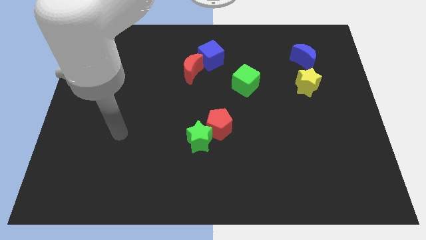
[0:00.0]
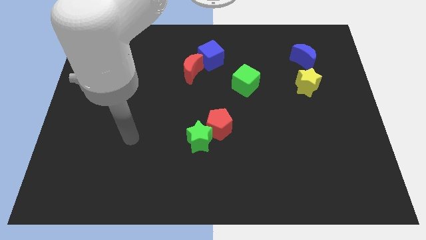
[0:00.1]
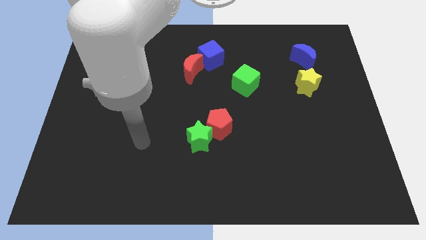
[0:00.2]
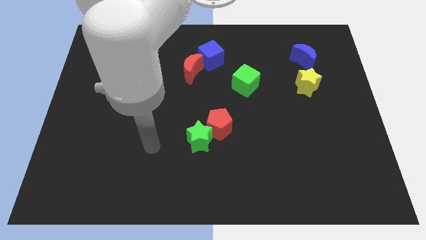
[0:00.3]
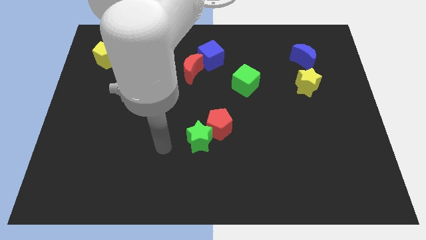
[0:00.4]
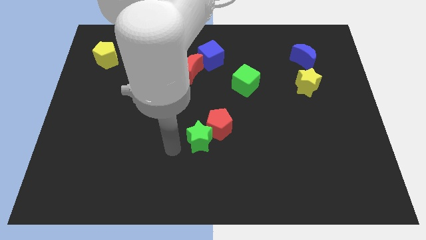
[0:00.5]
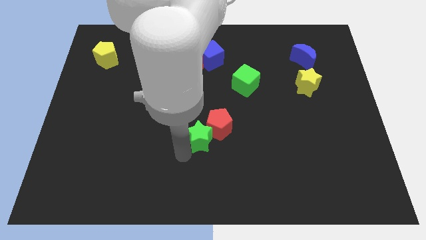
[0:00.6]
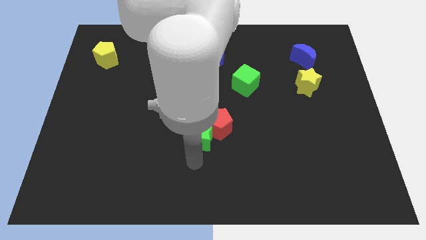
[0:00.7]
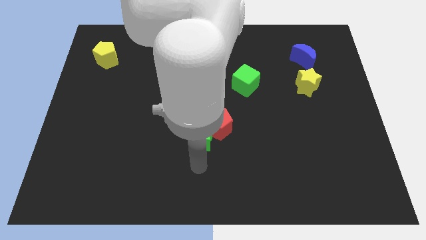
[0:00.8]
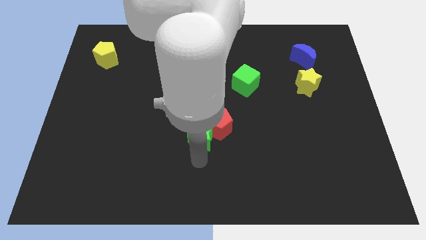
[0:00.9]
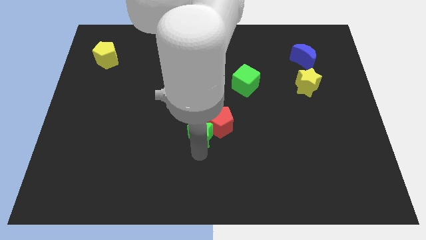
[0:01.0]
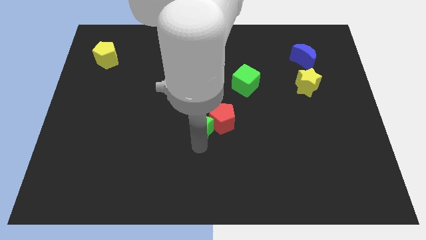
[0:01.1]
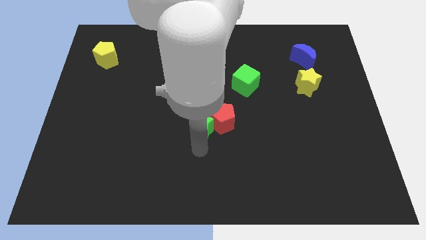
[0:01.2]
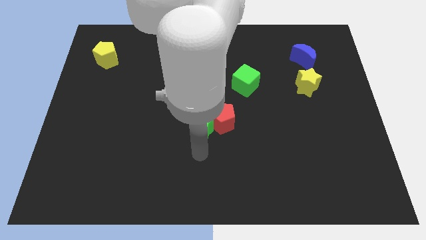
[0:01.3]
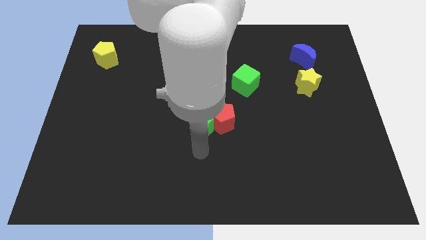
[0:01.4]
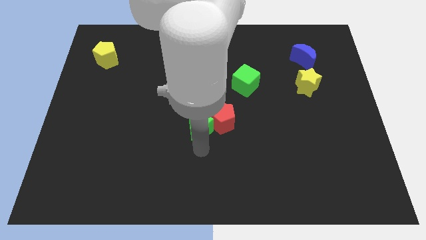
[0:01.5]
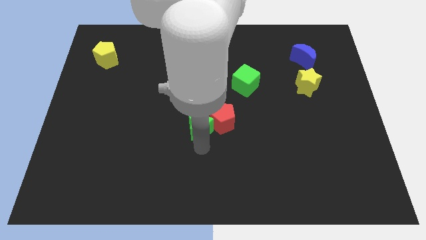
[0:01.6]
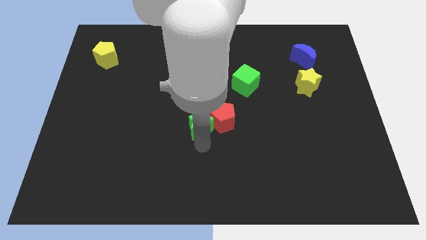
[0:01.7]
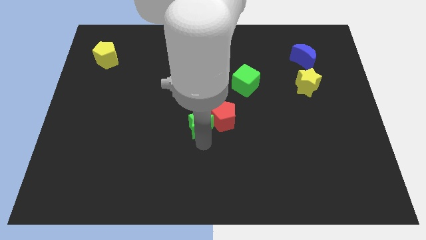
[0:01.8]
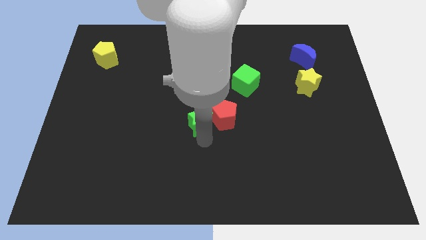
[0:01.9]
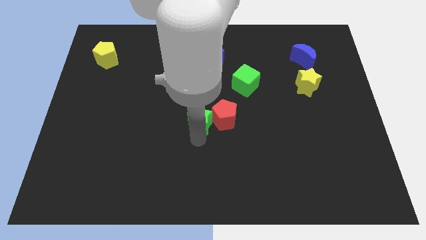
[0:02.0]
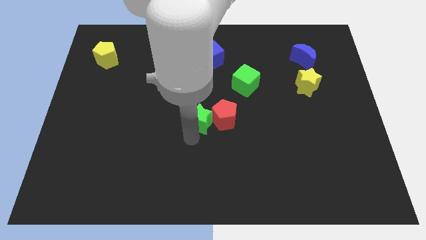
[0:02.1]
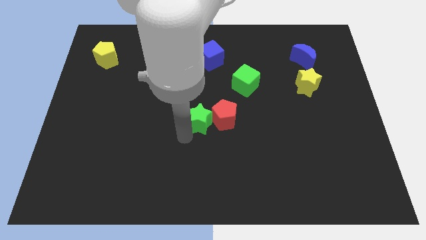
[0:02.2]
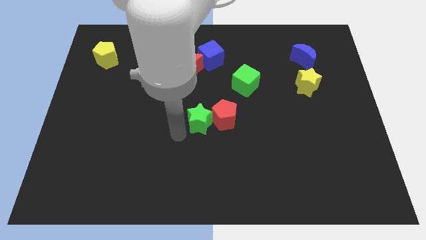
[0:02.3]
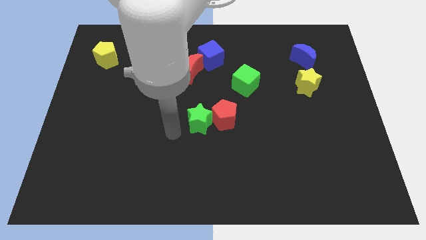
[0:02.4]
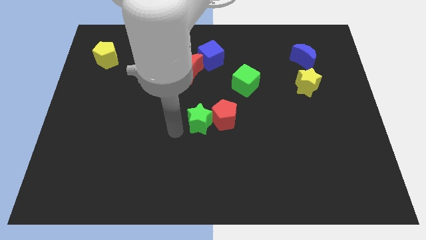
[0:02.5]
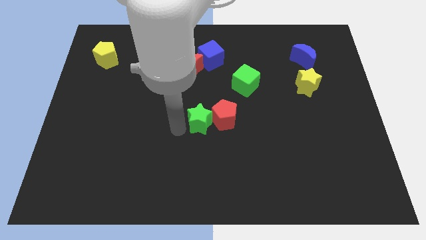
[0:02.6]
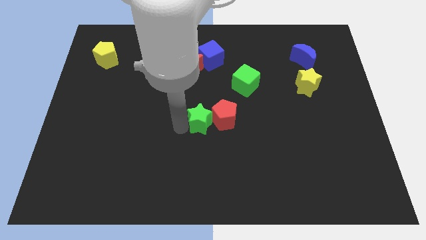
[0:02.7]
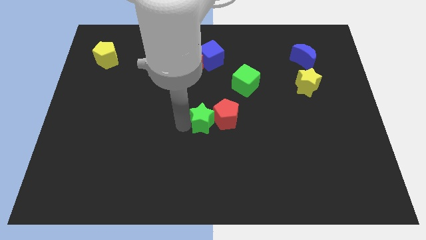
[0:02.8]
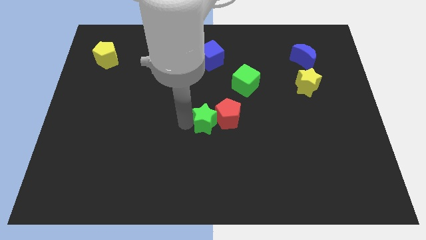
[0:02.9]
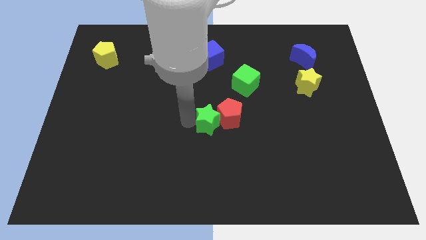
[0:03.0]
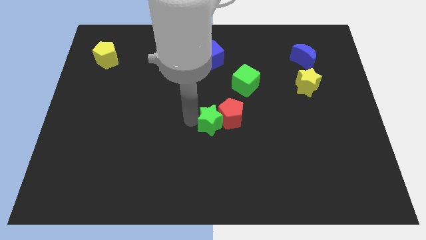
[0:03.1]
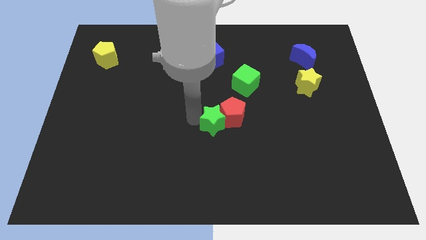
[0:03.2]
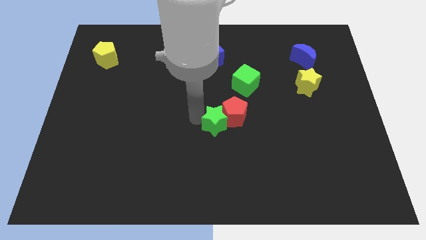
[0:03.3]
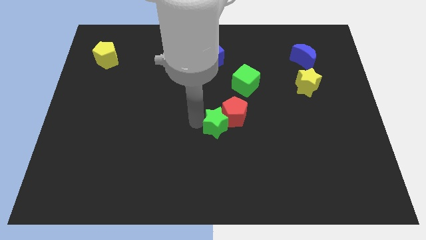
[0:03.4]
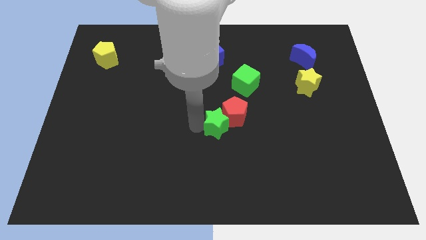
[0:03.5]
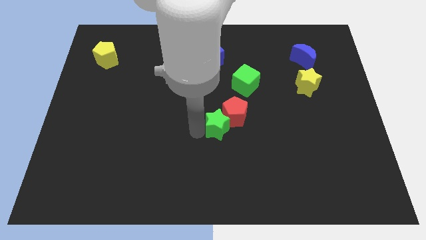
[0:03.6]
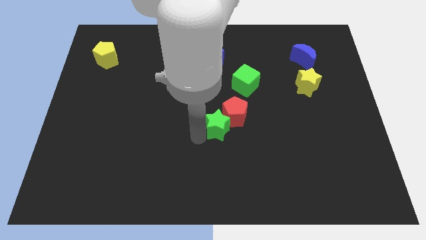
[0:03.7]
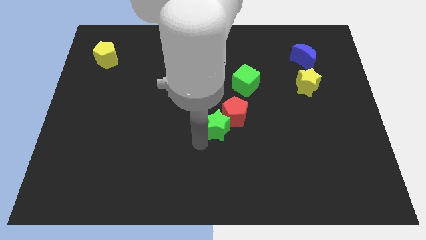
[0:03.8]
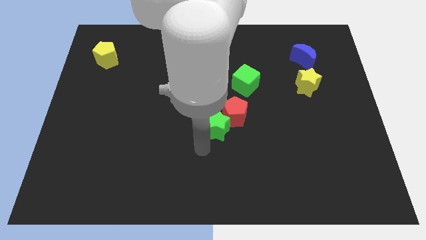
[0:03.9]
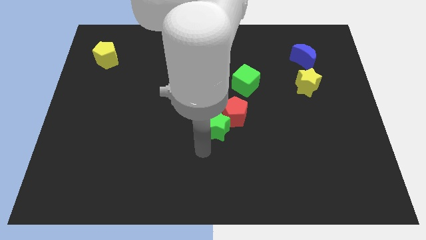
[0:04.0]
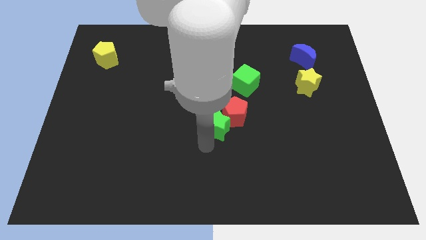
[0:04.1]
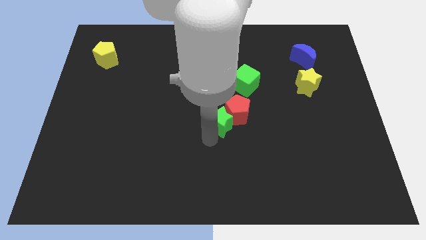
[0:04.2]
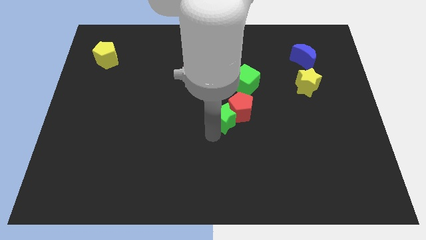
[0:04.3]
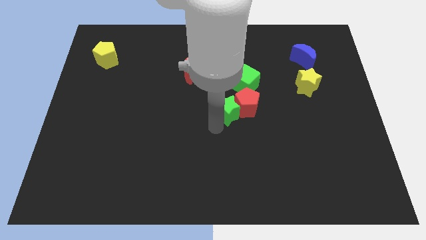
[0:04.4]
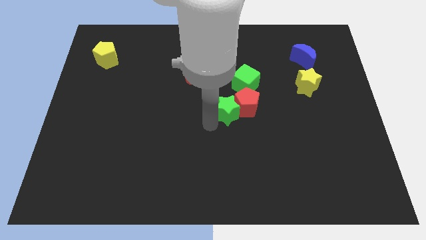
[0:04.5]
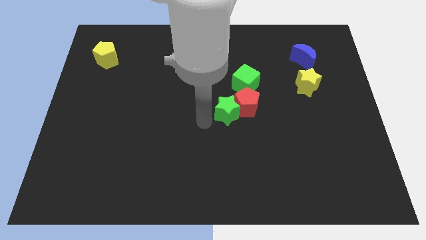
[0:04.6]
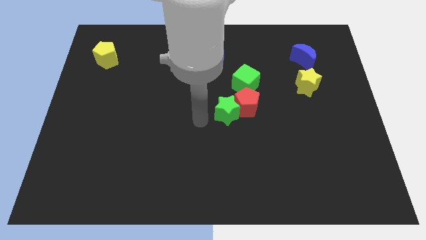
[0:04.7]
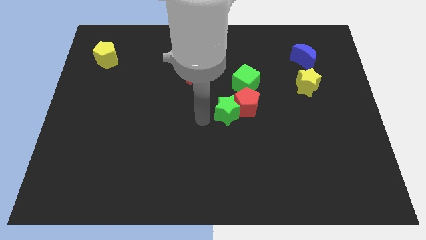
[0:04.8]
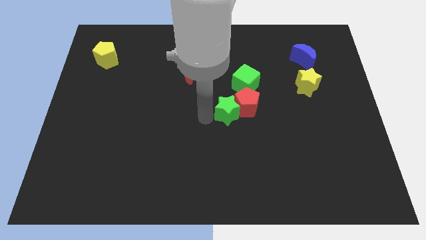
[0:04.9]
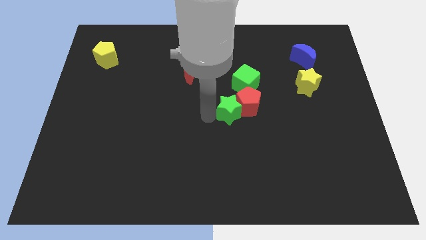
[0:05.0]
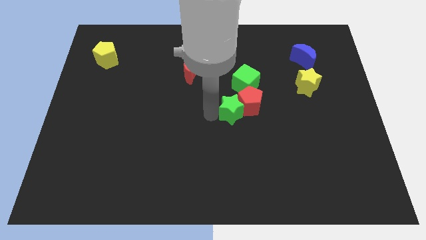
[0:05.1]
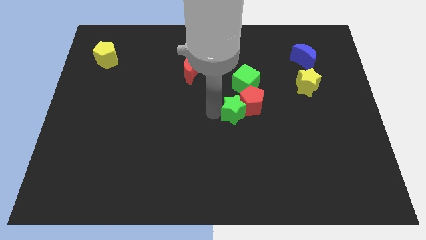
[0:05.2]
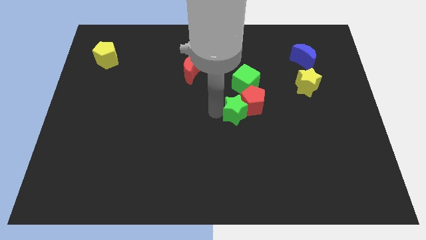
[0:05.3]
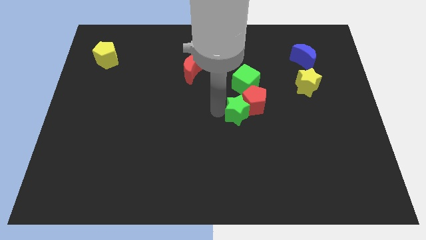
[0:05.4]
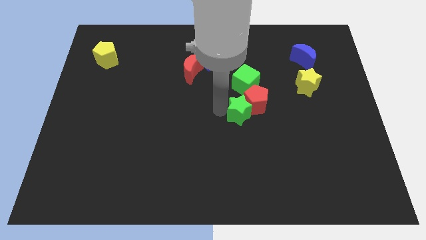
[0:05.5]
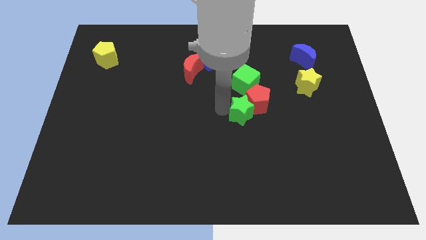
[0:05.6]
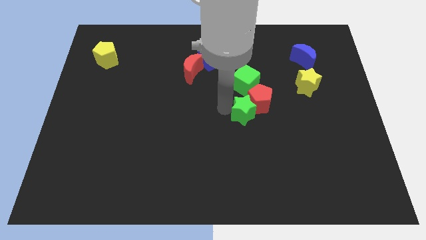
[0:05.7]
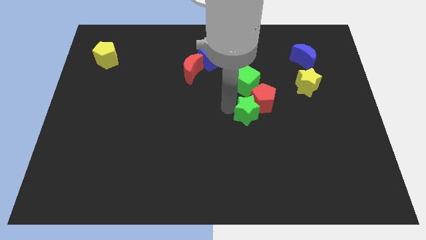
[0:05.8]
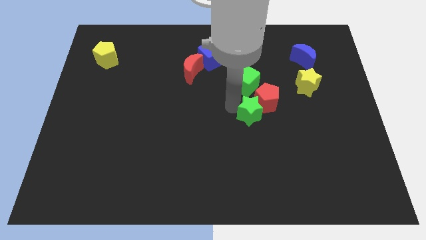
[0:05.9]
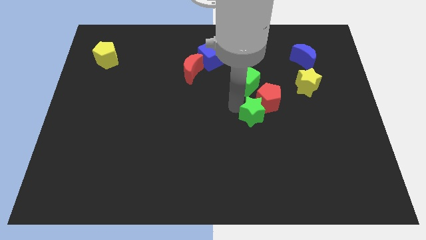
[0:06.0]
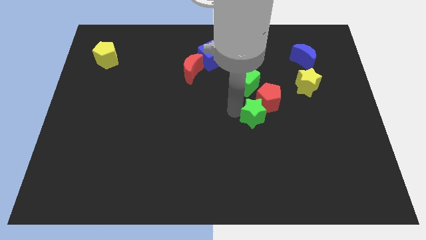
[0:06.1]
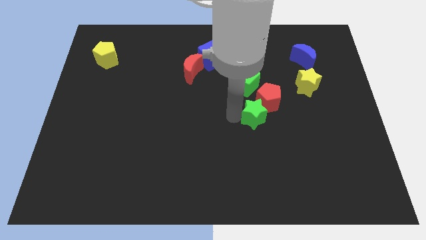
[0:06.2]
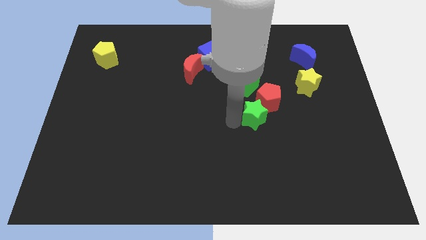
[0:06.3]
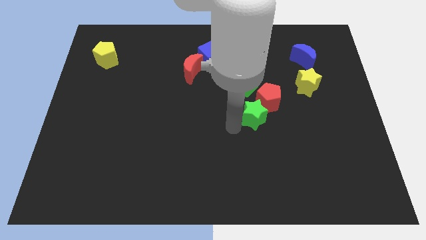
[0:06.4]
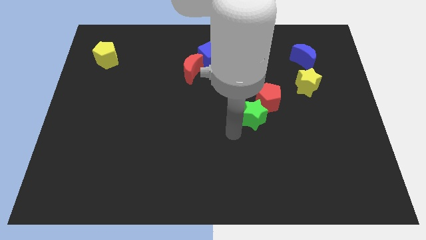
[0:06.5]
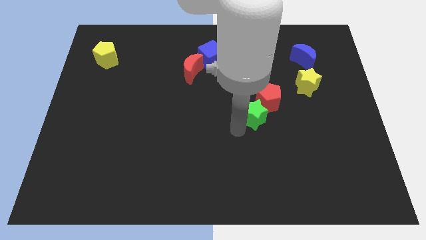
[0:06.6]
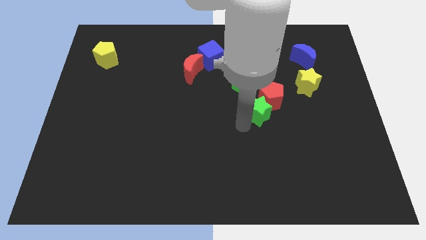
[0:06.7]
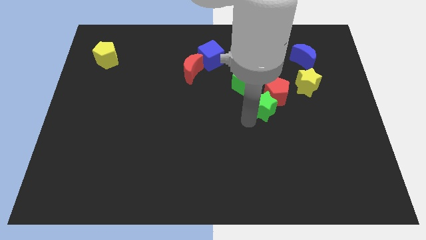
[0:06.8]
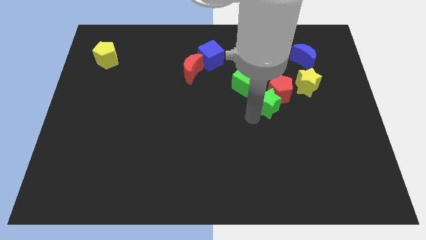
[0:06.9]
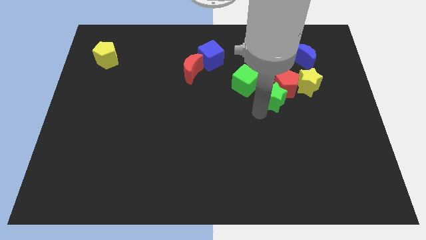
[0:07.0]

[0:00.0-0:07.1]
push the green star up and to the right diagonally

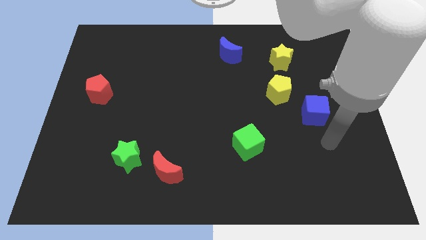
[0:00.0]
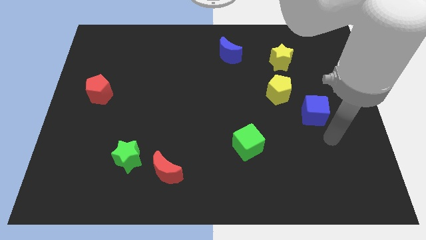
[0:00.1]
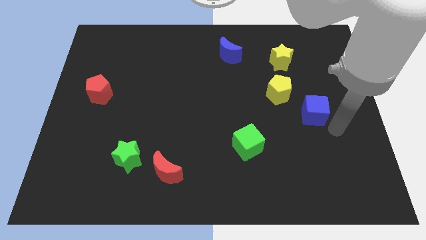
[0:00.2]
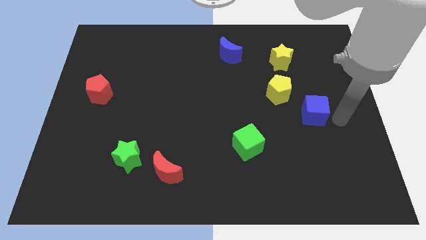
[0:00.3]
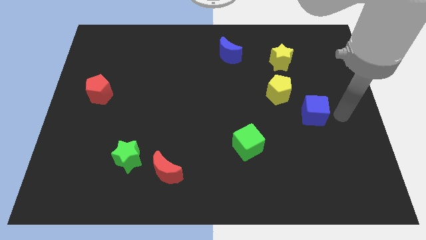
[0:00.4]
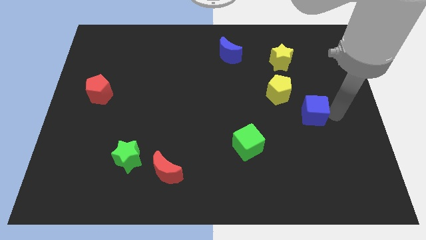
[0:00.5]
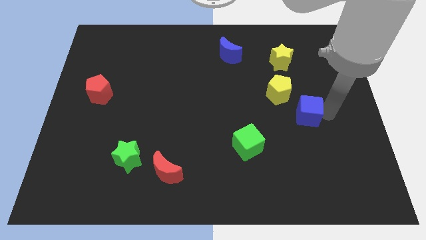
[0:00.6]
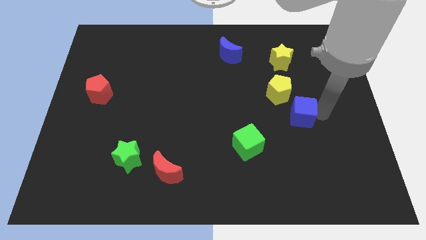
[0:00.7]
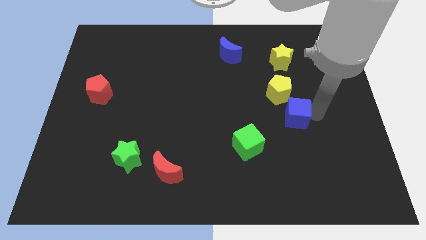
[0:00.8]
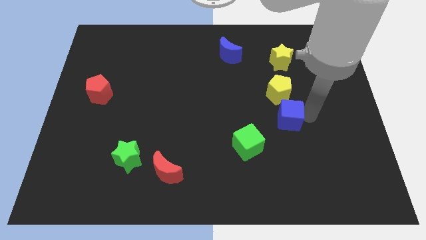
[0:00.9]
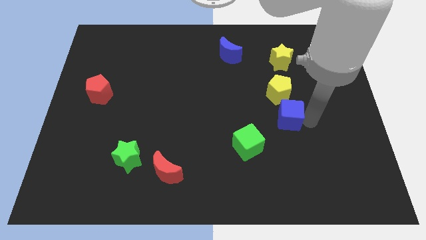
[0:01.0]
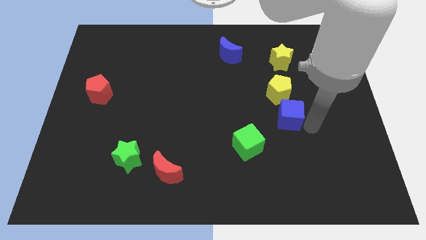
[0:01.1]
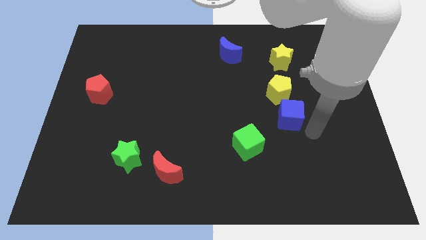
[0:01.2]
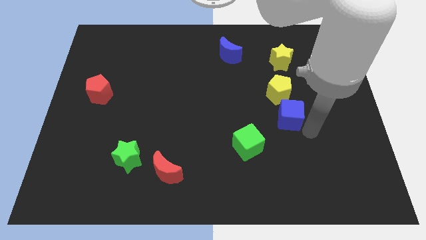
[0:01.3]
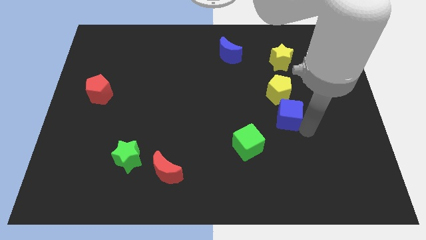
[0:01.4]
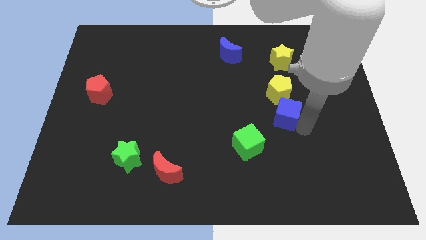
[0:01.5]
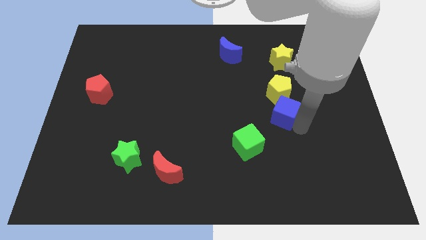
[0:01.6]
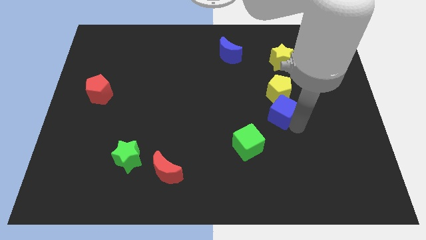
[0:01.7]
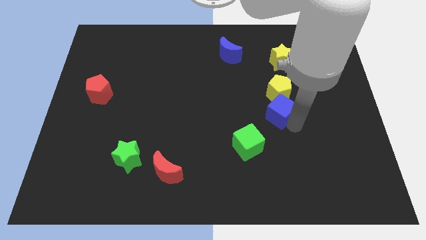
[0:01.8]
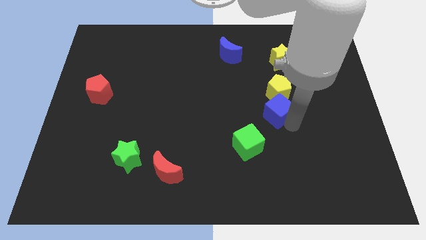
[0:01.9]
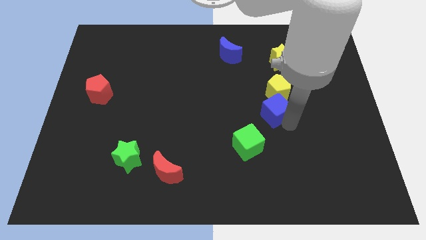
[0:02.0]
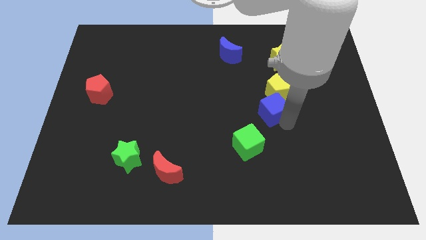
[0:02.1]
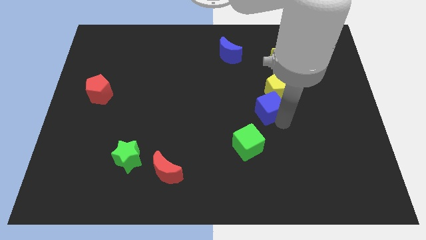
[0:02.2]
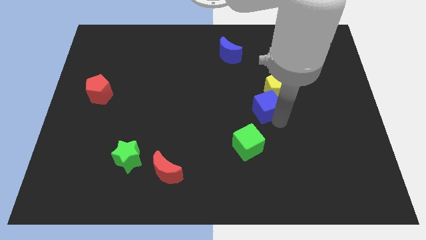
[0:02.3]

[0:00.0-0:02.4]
slide the blue cube a little bit upwards and left
